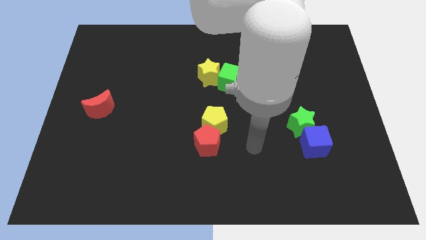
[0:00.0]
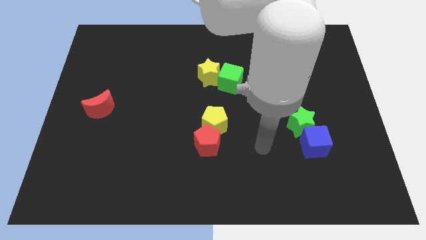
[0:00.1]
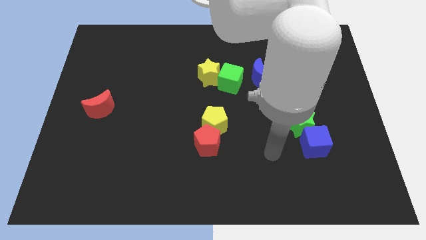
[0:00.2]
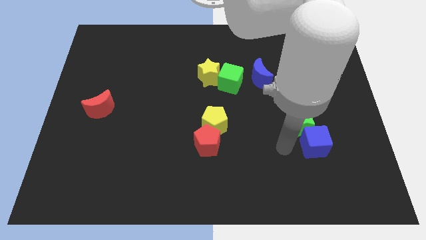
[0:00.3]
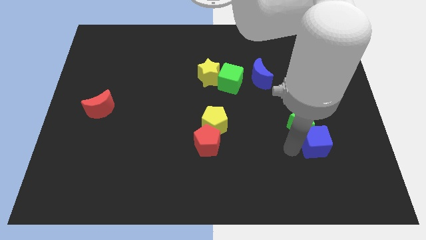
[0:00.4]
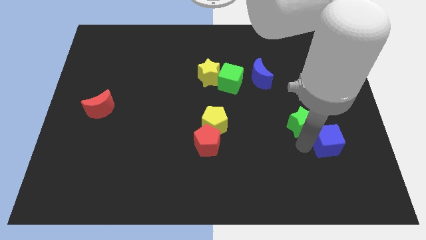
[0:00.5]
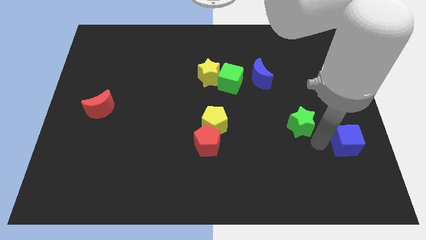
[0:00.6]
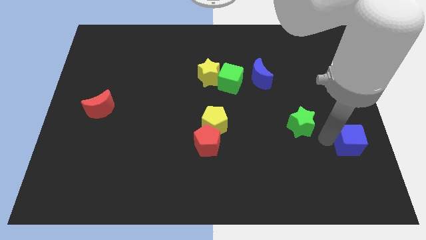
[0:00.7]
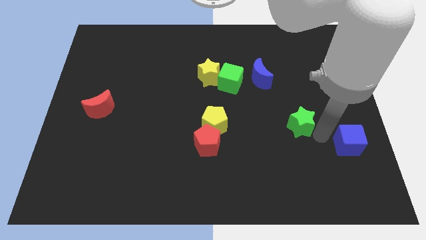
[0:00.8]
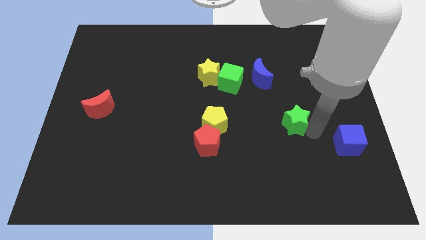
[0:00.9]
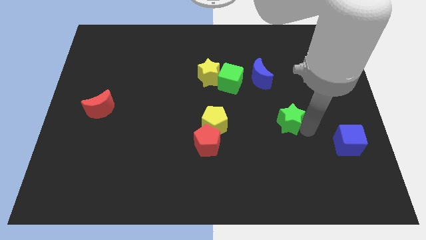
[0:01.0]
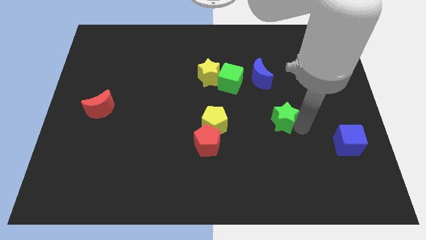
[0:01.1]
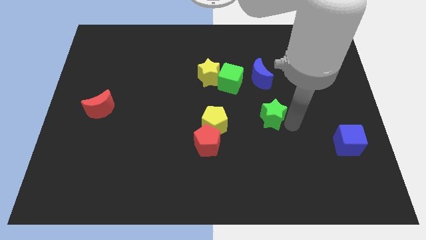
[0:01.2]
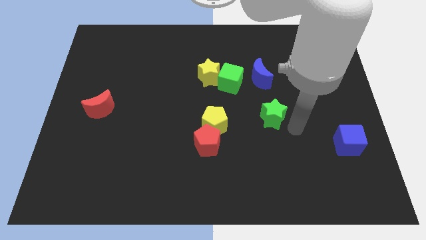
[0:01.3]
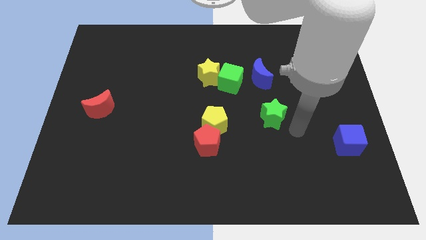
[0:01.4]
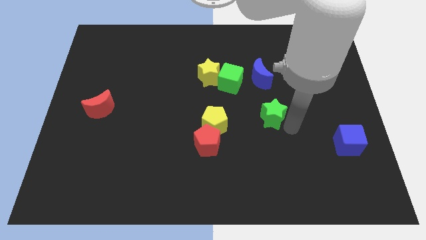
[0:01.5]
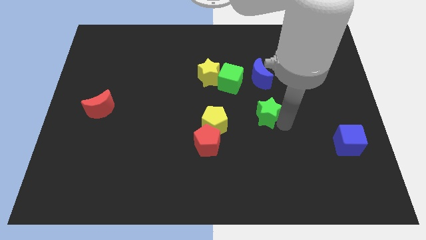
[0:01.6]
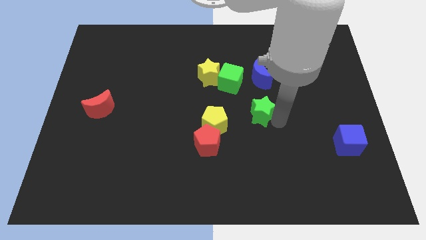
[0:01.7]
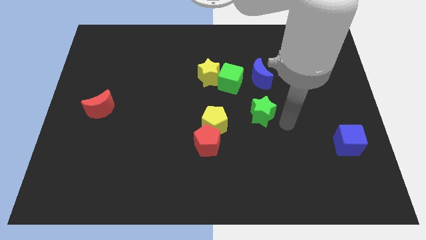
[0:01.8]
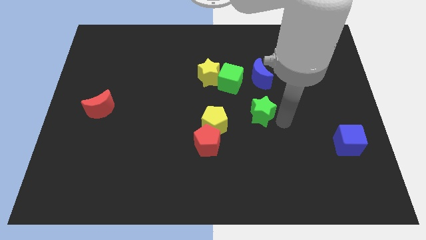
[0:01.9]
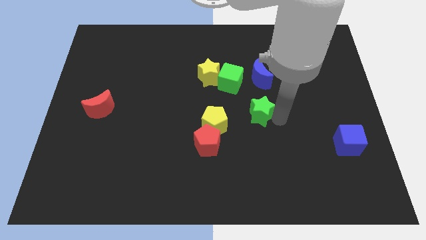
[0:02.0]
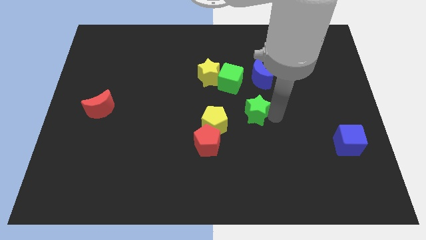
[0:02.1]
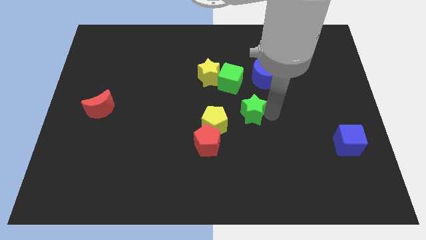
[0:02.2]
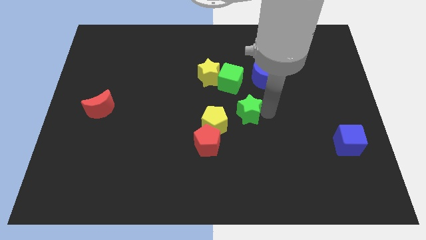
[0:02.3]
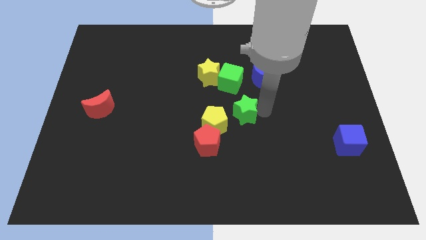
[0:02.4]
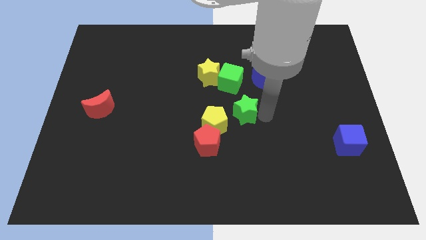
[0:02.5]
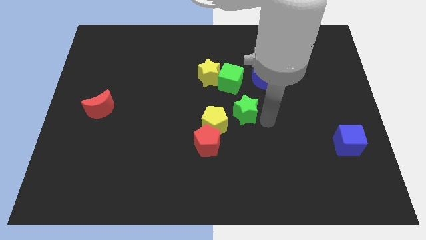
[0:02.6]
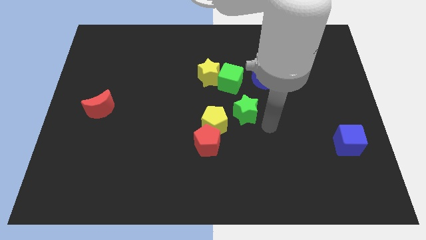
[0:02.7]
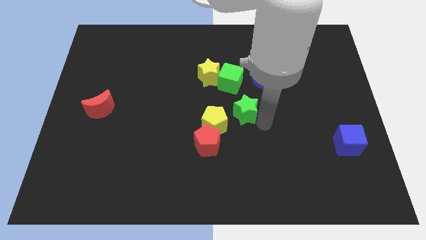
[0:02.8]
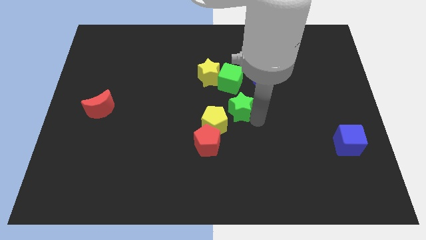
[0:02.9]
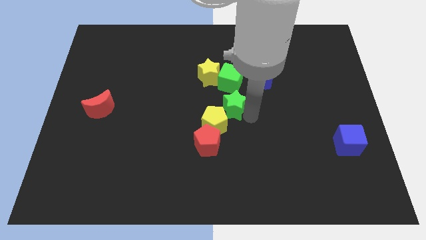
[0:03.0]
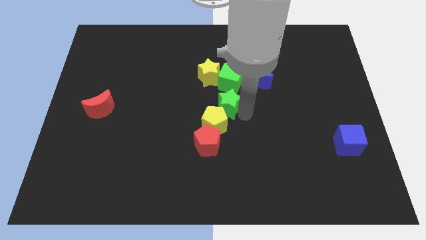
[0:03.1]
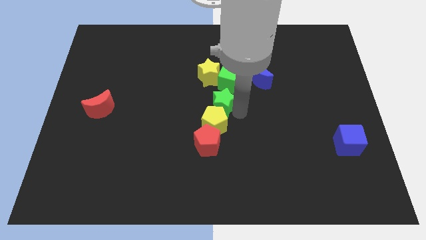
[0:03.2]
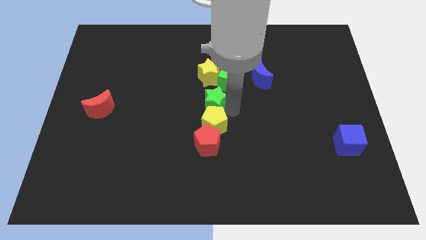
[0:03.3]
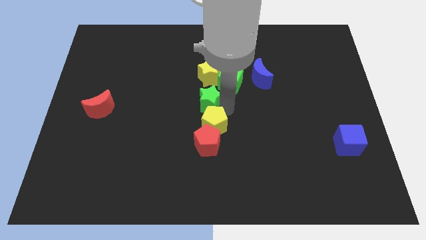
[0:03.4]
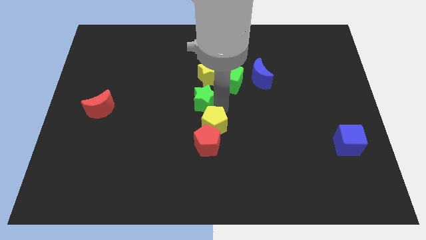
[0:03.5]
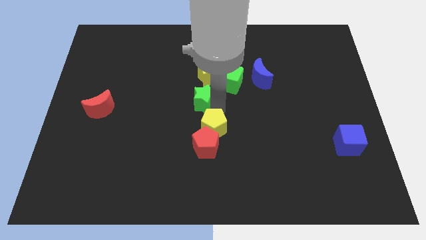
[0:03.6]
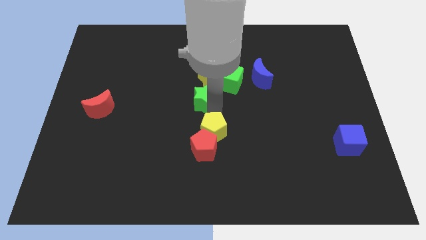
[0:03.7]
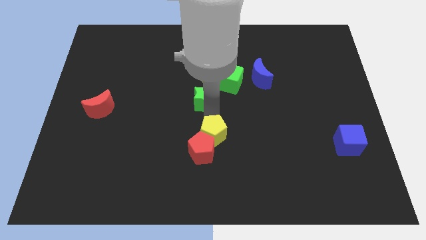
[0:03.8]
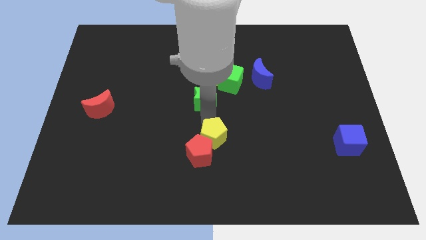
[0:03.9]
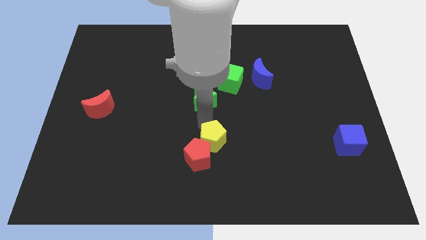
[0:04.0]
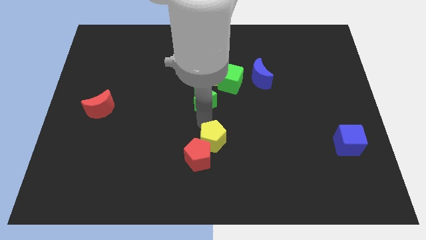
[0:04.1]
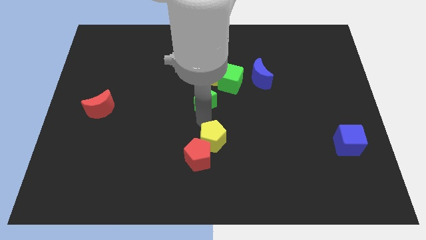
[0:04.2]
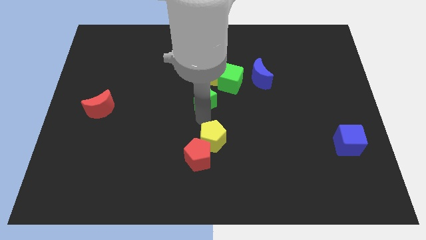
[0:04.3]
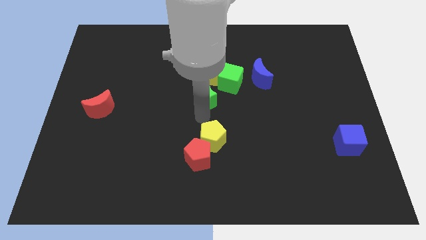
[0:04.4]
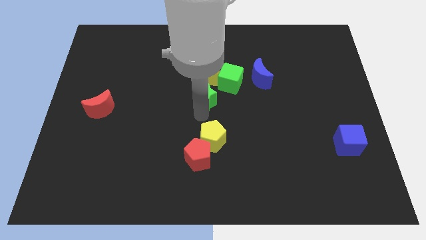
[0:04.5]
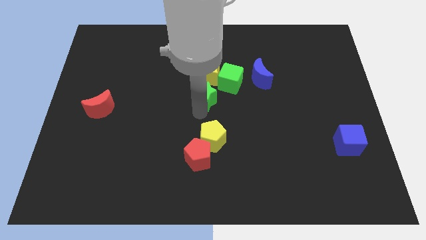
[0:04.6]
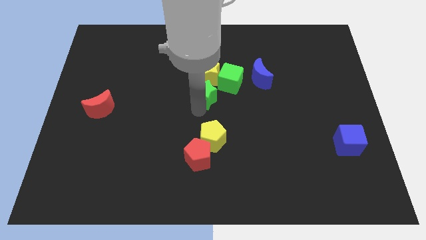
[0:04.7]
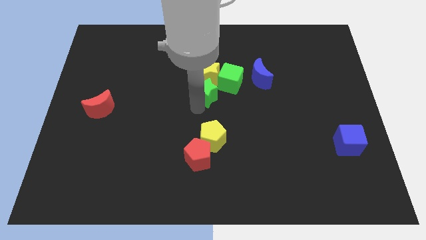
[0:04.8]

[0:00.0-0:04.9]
slide the green star left of the green cube

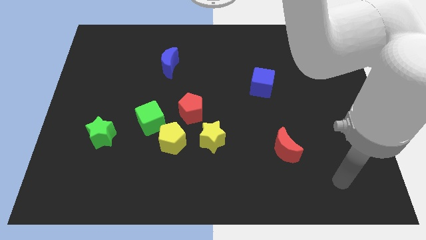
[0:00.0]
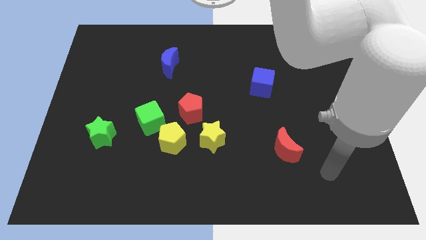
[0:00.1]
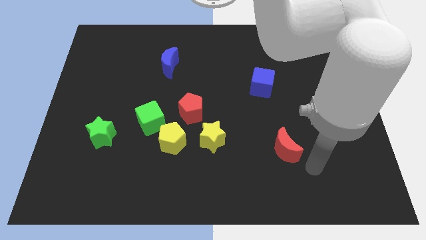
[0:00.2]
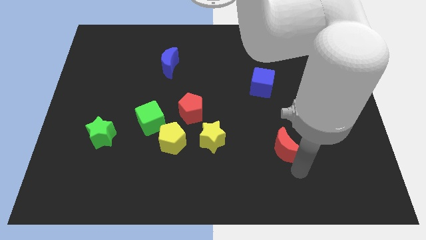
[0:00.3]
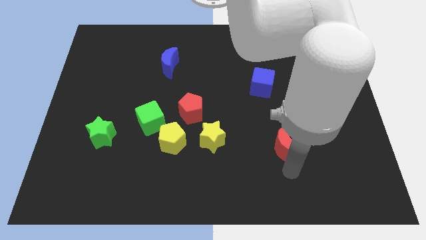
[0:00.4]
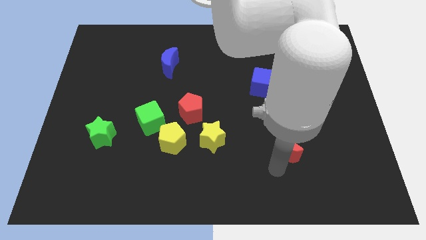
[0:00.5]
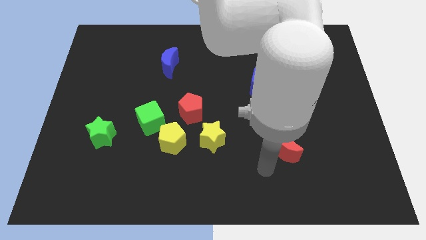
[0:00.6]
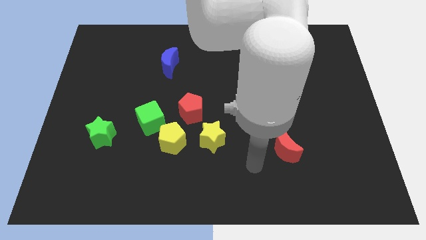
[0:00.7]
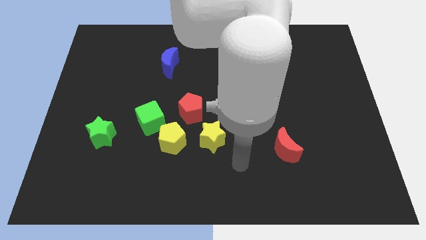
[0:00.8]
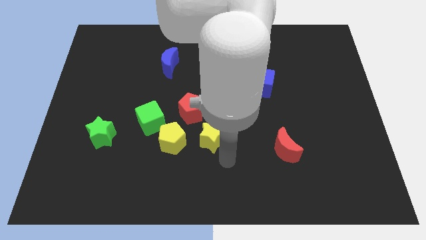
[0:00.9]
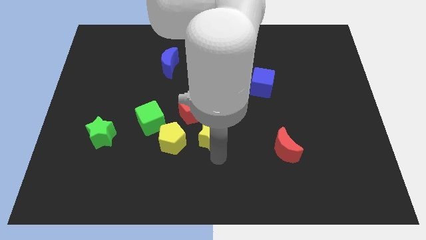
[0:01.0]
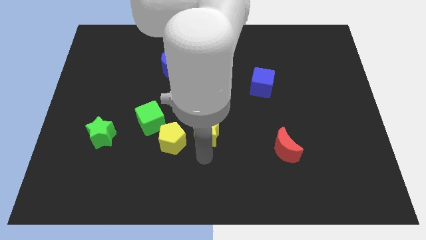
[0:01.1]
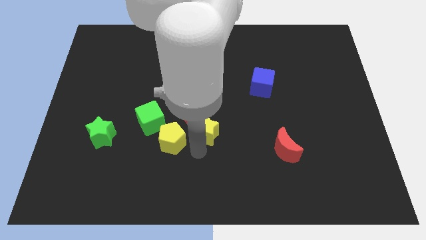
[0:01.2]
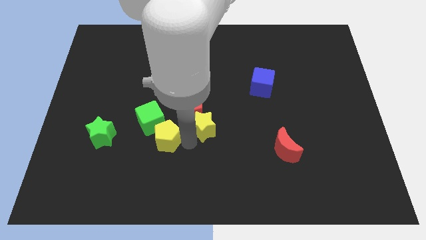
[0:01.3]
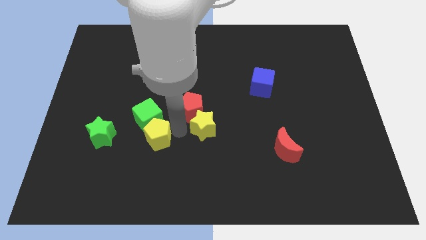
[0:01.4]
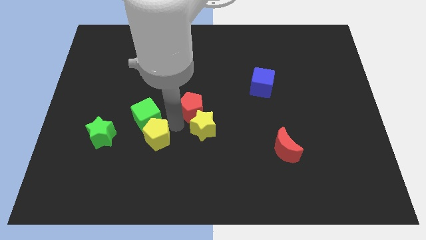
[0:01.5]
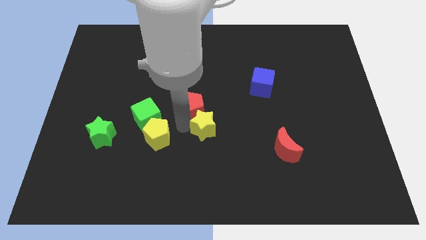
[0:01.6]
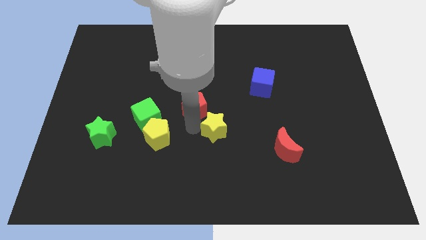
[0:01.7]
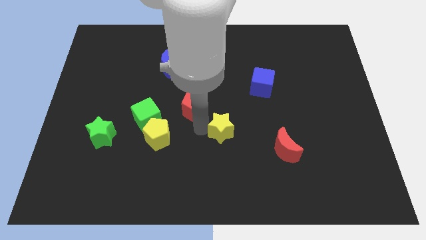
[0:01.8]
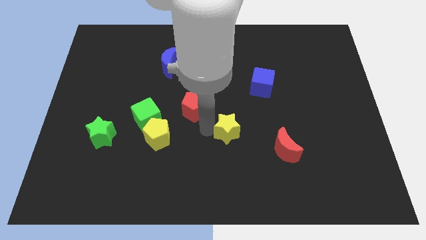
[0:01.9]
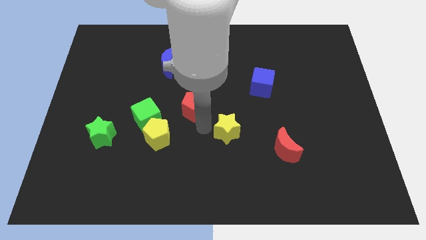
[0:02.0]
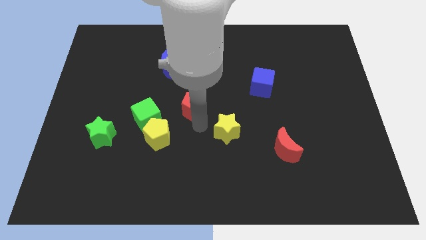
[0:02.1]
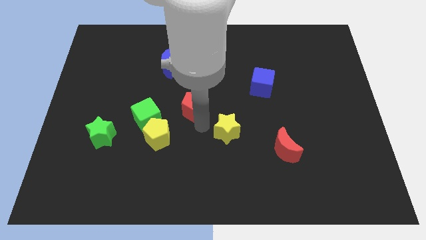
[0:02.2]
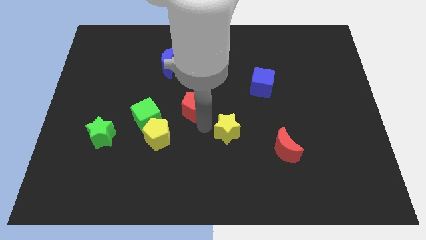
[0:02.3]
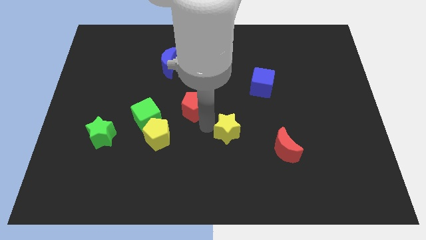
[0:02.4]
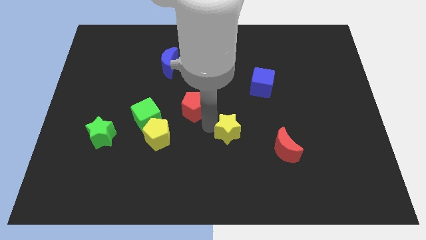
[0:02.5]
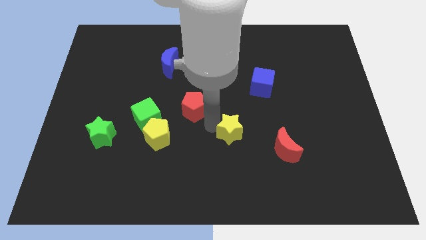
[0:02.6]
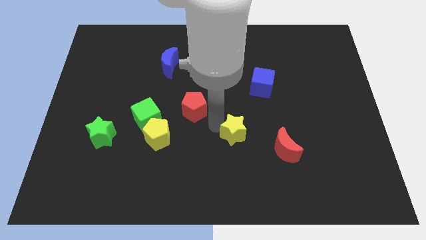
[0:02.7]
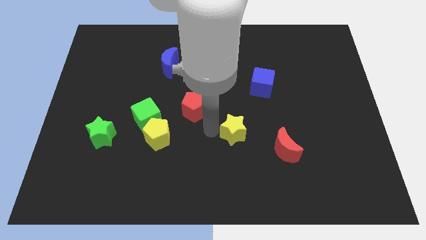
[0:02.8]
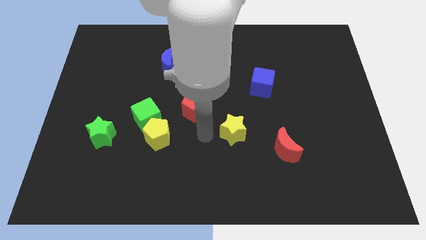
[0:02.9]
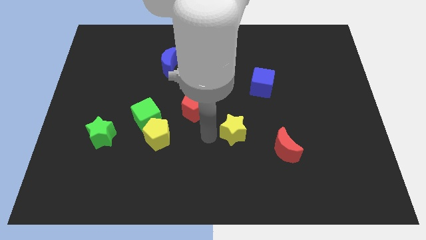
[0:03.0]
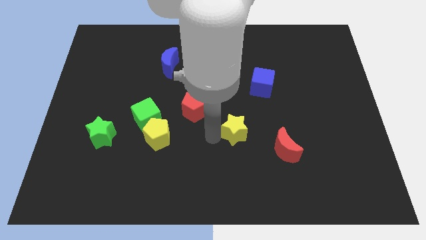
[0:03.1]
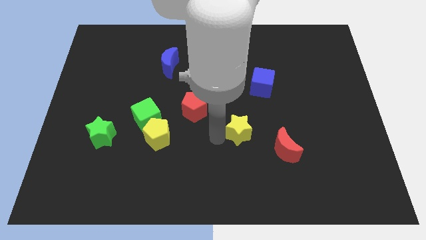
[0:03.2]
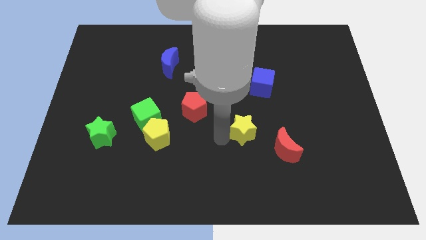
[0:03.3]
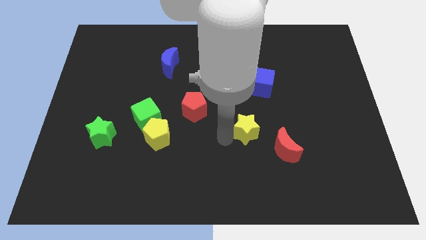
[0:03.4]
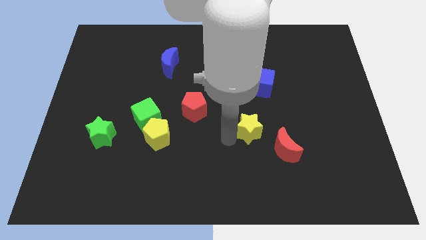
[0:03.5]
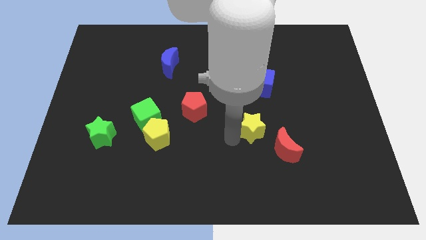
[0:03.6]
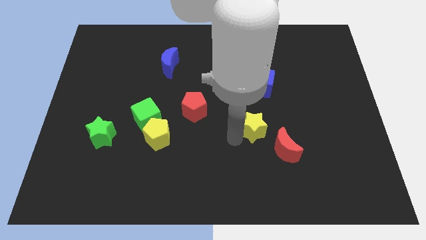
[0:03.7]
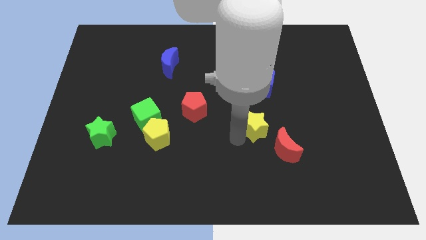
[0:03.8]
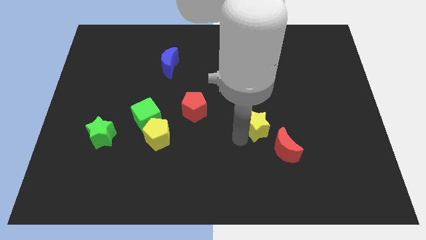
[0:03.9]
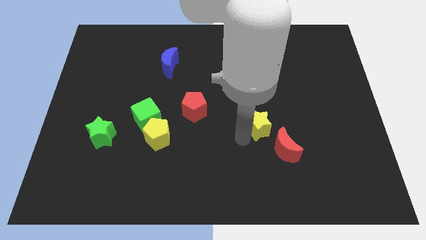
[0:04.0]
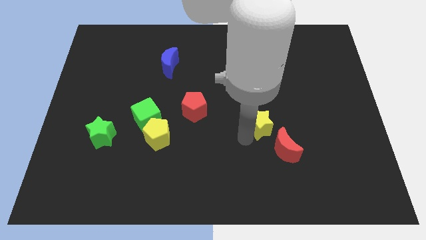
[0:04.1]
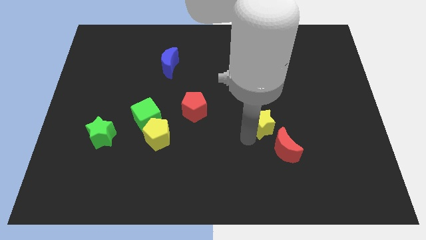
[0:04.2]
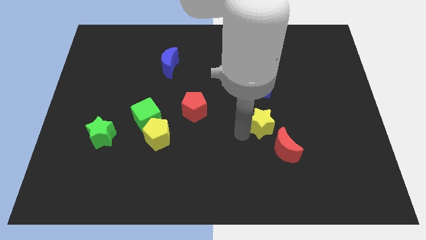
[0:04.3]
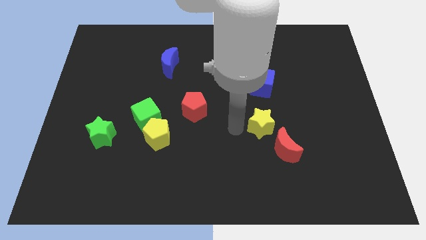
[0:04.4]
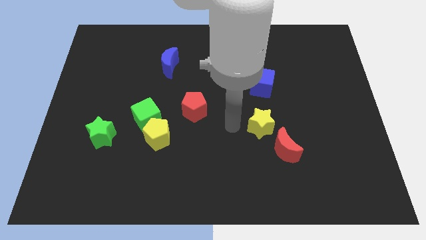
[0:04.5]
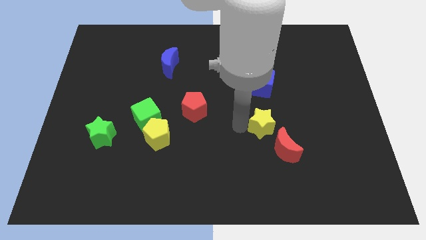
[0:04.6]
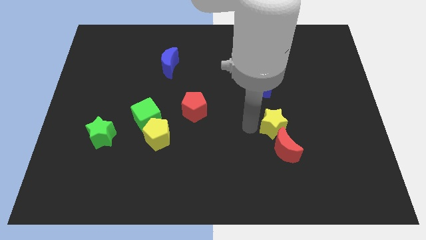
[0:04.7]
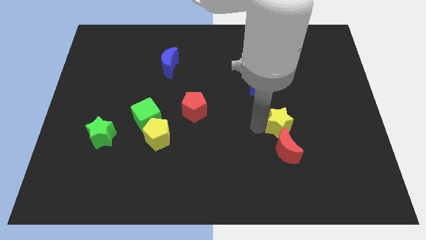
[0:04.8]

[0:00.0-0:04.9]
move the yellow star to the top right side of the red moon
